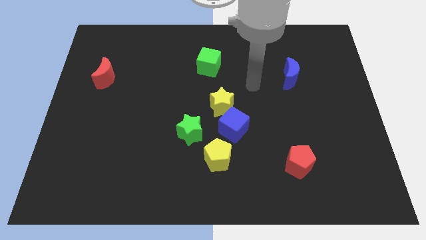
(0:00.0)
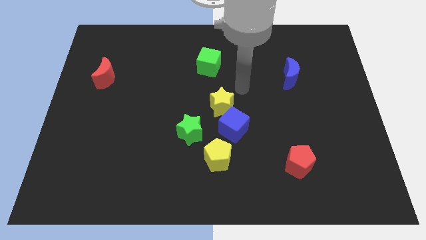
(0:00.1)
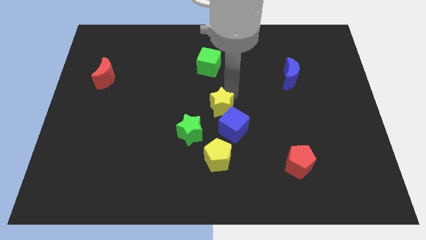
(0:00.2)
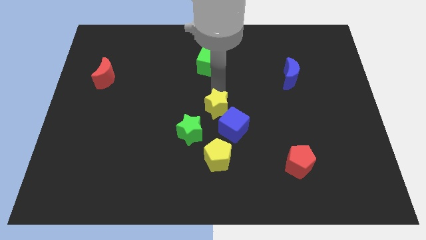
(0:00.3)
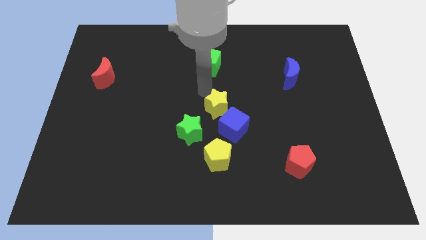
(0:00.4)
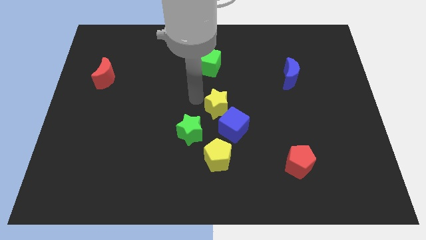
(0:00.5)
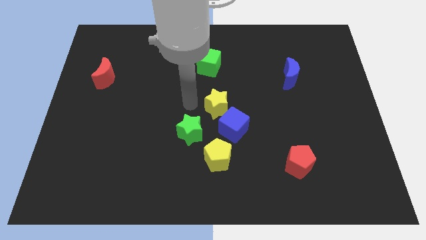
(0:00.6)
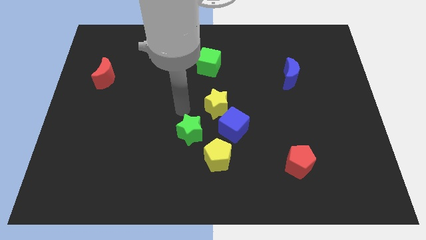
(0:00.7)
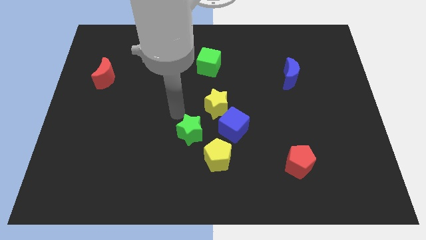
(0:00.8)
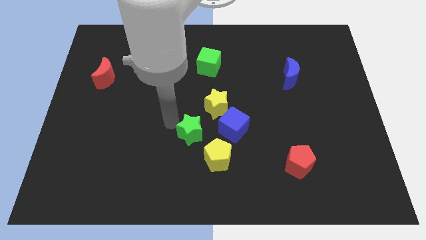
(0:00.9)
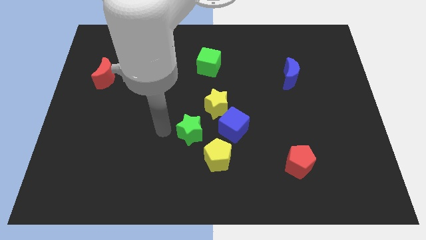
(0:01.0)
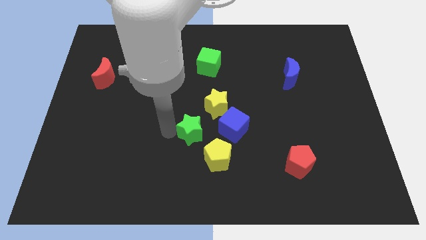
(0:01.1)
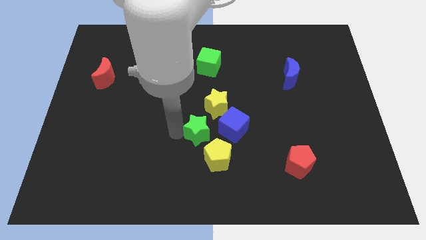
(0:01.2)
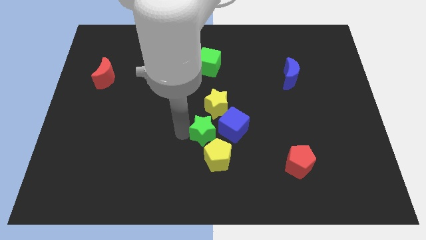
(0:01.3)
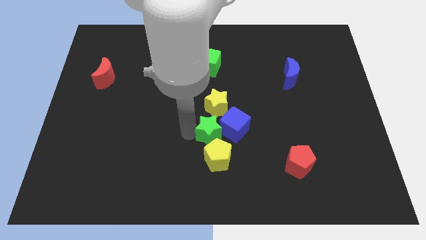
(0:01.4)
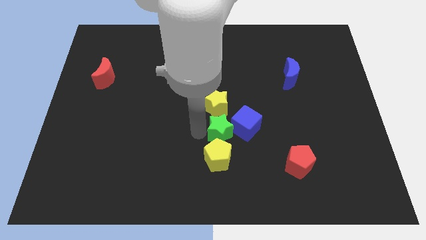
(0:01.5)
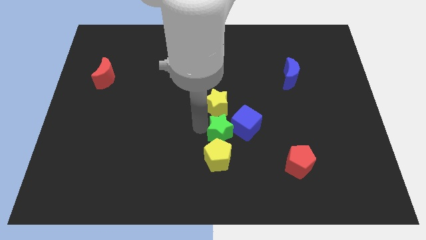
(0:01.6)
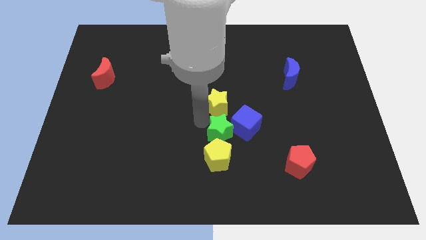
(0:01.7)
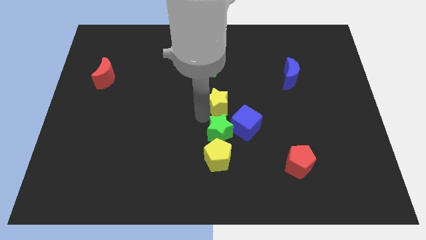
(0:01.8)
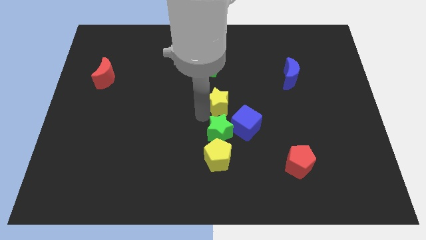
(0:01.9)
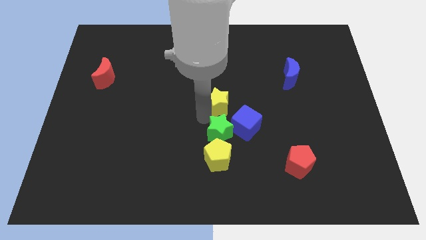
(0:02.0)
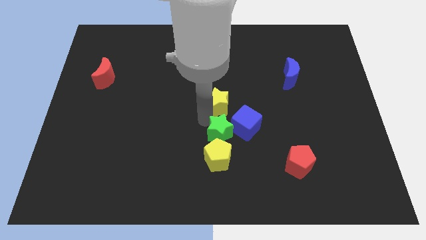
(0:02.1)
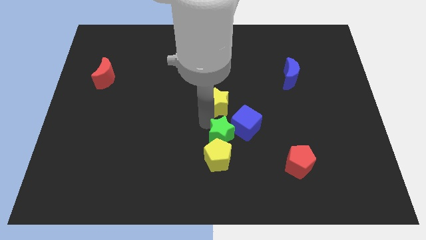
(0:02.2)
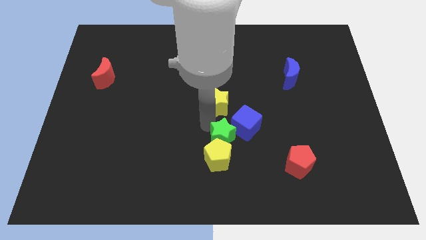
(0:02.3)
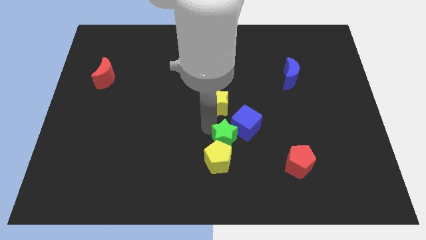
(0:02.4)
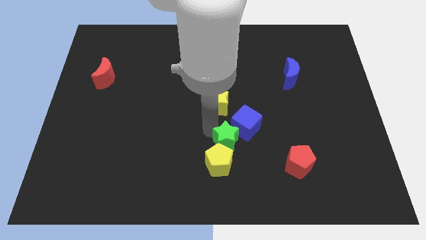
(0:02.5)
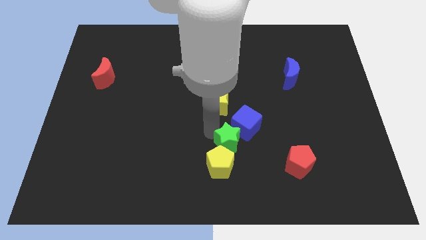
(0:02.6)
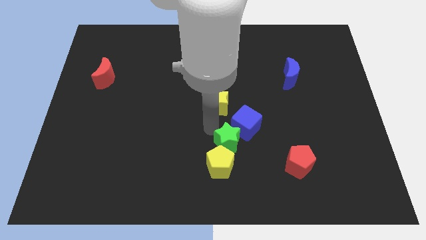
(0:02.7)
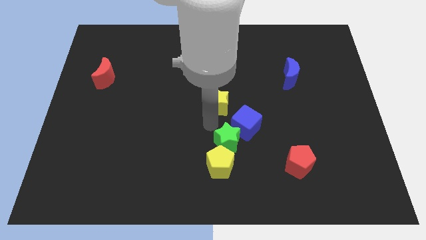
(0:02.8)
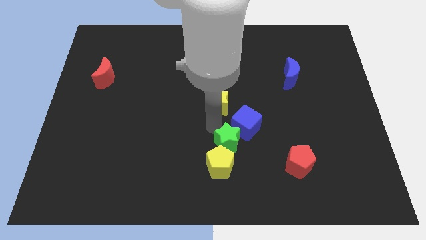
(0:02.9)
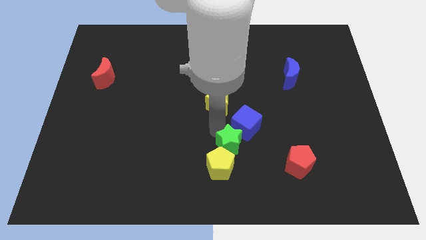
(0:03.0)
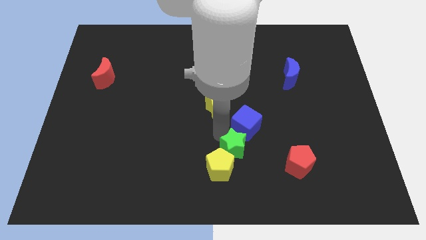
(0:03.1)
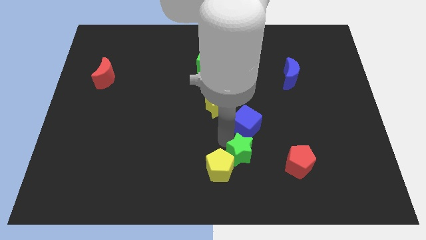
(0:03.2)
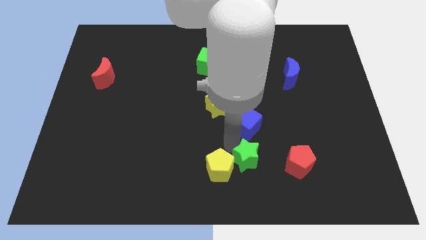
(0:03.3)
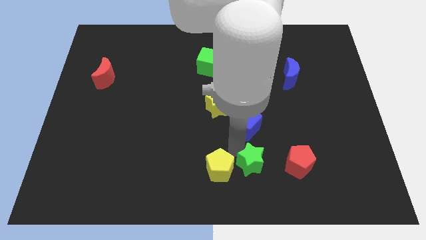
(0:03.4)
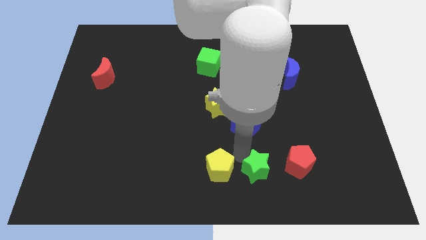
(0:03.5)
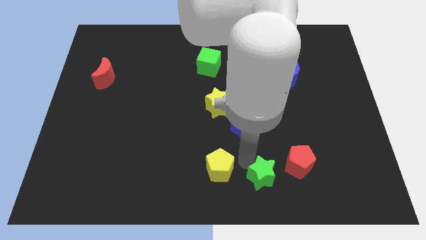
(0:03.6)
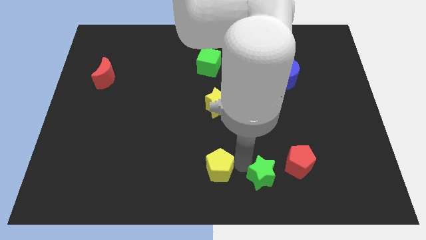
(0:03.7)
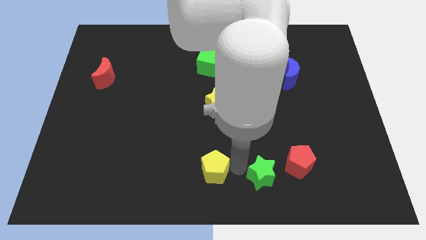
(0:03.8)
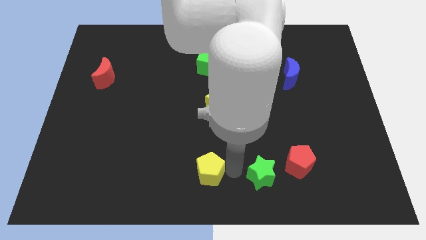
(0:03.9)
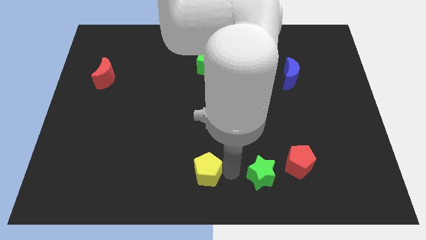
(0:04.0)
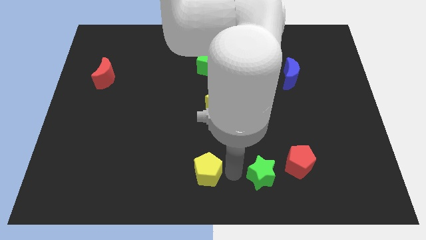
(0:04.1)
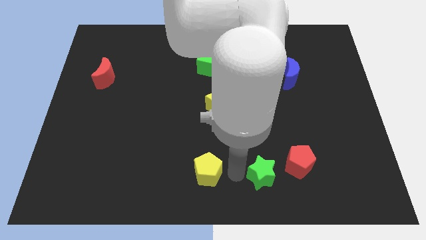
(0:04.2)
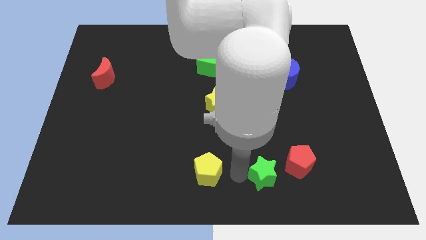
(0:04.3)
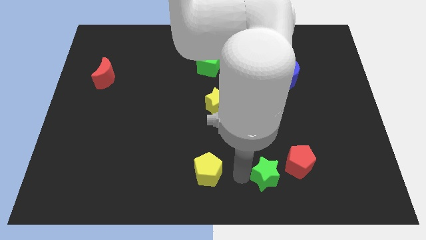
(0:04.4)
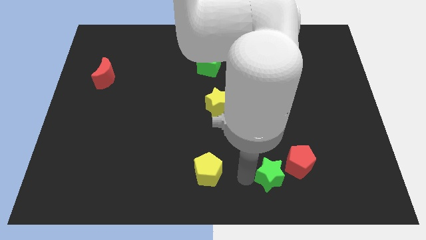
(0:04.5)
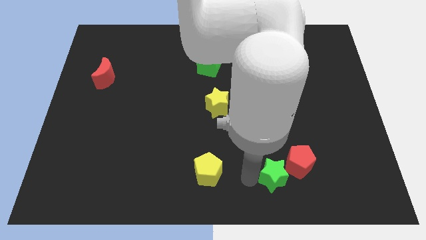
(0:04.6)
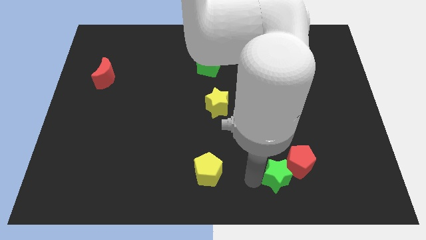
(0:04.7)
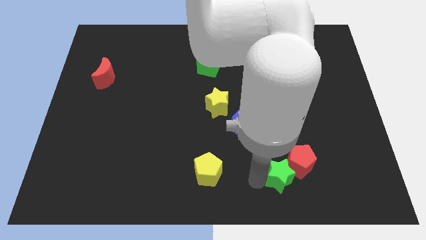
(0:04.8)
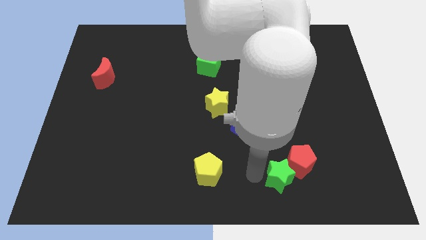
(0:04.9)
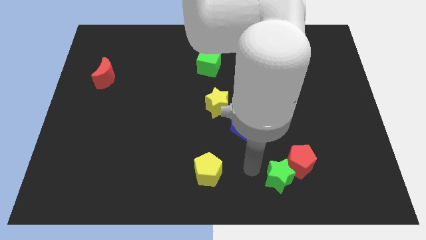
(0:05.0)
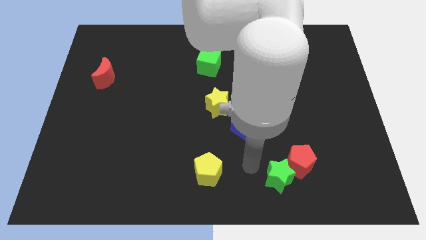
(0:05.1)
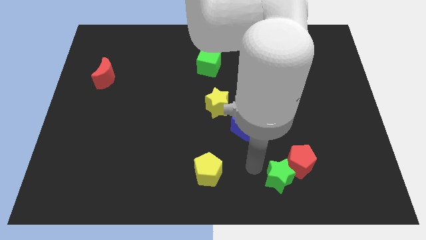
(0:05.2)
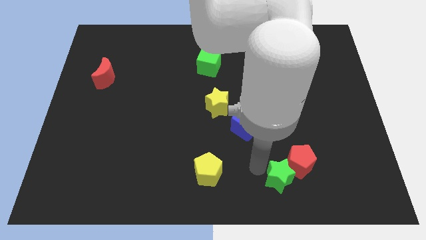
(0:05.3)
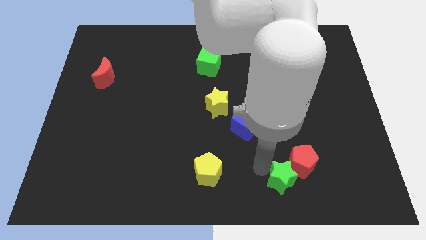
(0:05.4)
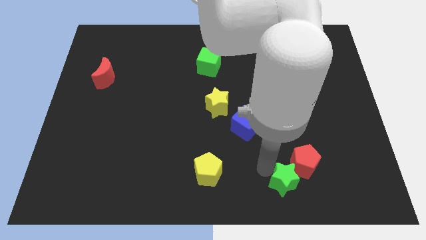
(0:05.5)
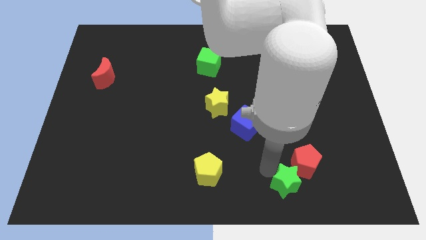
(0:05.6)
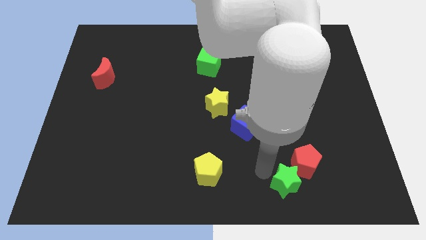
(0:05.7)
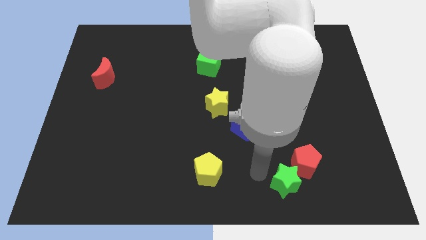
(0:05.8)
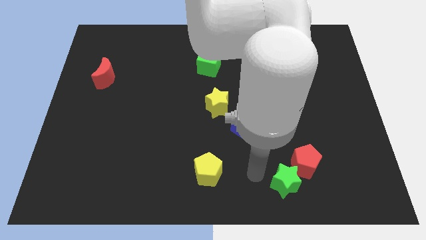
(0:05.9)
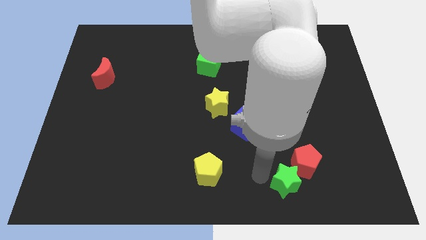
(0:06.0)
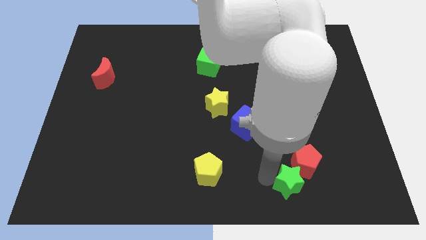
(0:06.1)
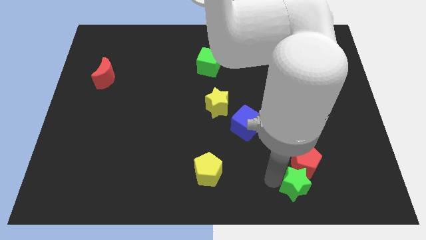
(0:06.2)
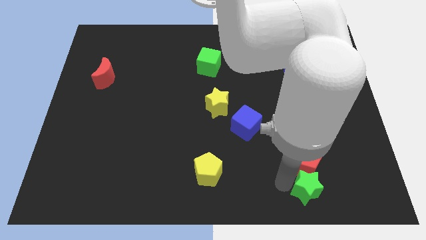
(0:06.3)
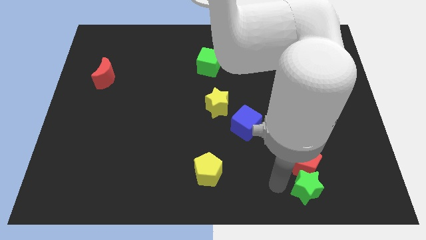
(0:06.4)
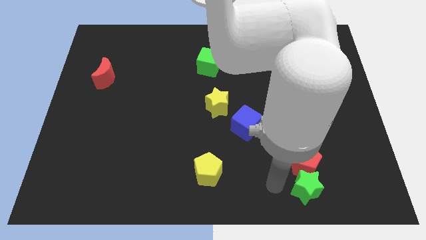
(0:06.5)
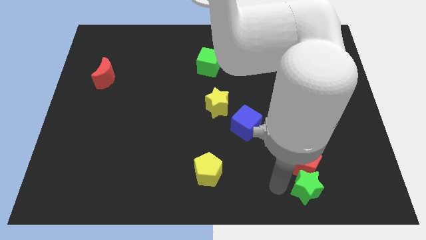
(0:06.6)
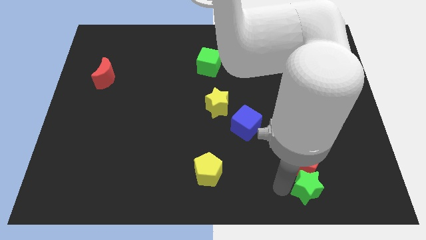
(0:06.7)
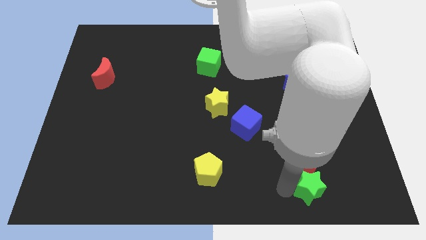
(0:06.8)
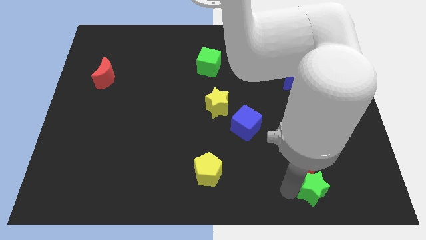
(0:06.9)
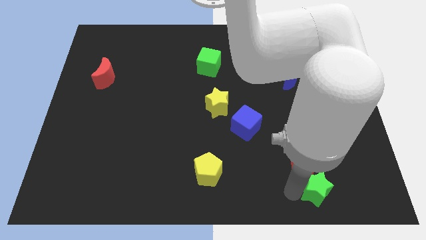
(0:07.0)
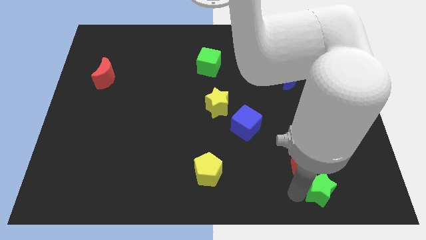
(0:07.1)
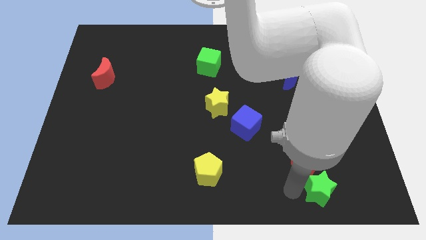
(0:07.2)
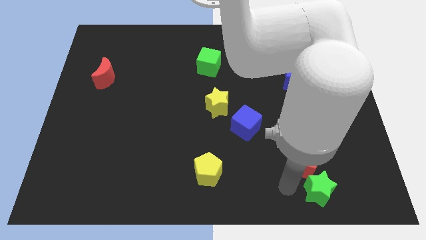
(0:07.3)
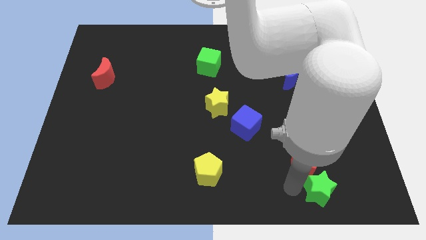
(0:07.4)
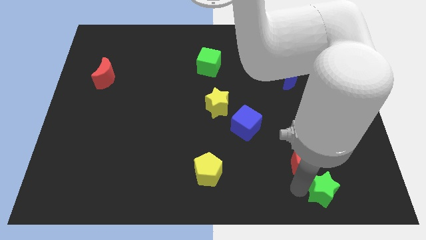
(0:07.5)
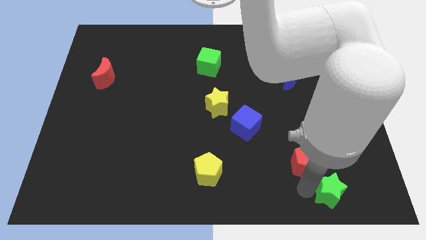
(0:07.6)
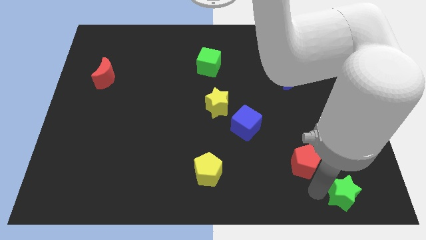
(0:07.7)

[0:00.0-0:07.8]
slide the green star to the bottom right corner
